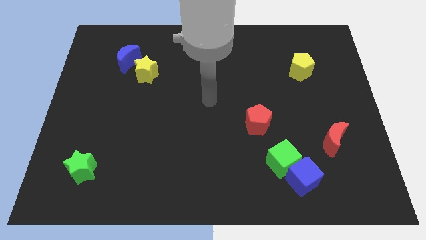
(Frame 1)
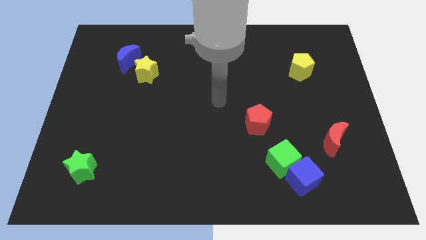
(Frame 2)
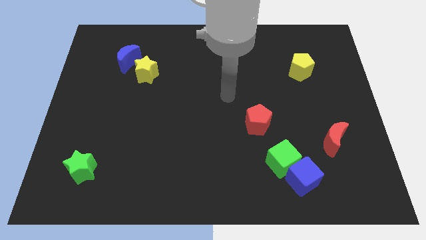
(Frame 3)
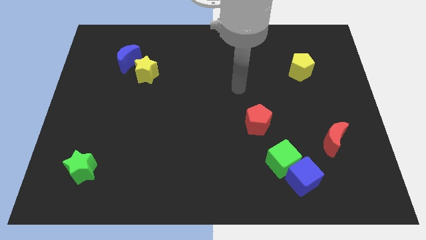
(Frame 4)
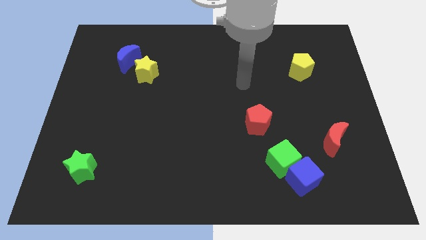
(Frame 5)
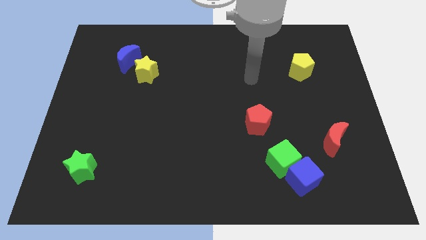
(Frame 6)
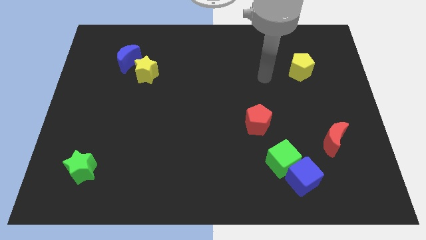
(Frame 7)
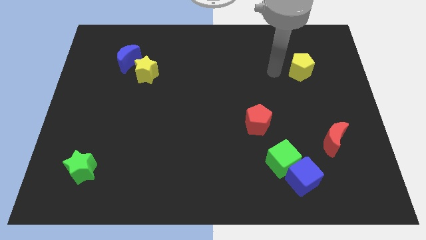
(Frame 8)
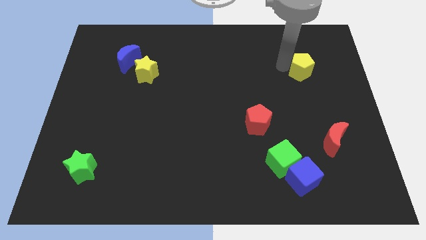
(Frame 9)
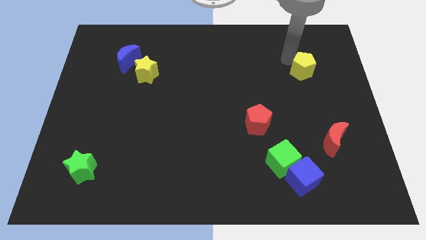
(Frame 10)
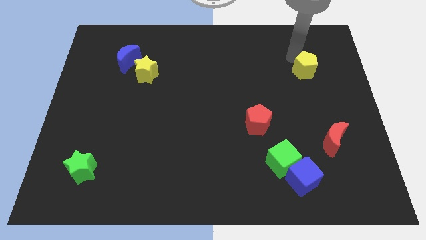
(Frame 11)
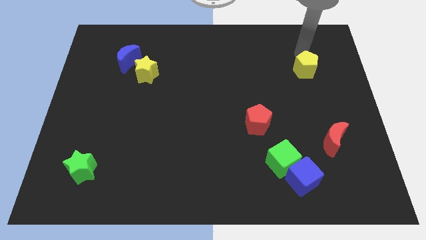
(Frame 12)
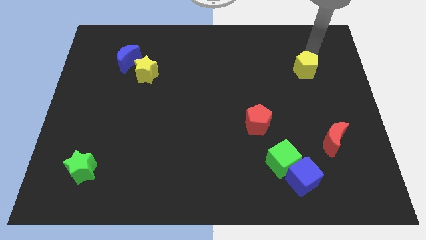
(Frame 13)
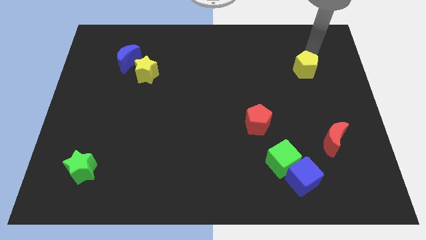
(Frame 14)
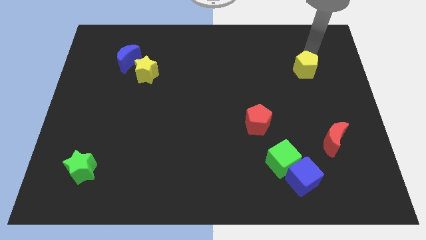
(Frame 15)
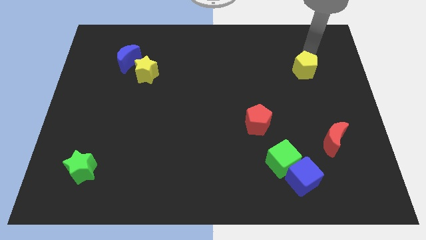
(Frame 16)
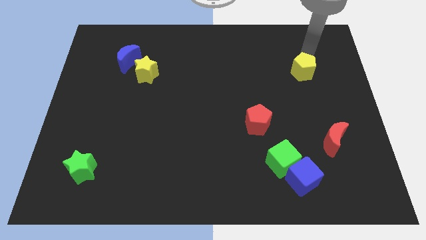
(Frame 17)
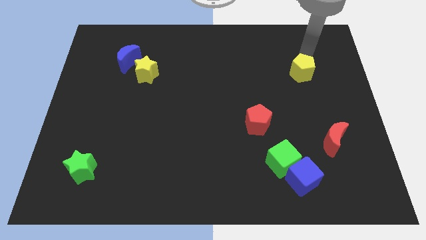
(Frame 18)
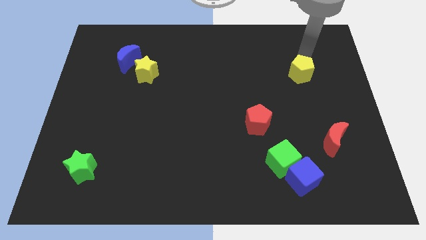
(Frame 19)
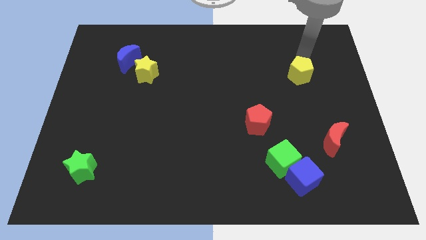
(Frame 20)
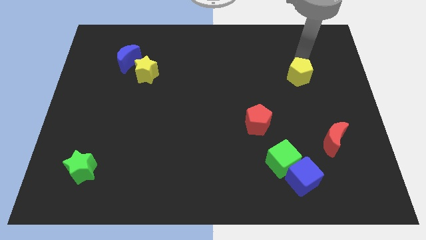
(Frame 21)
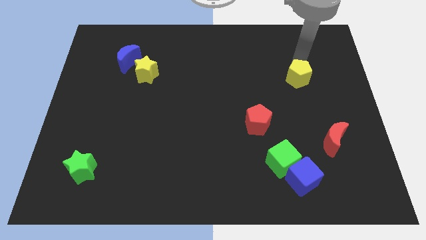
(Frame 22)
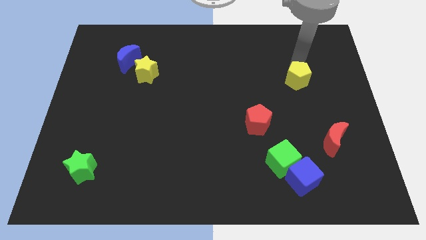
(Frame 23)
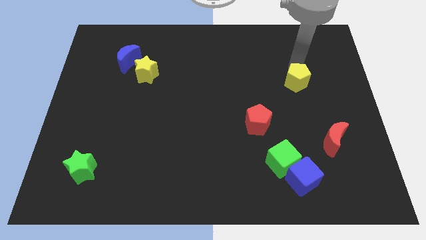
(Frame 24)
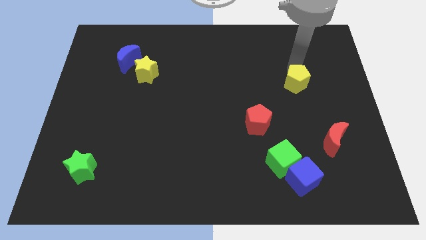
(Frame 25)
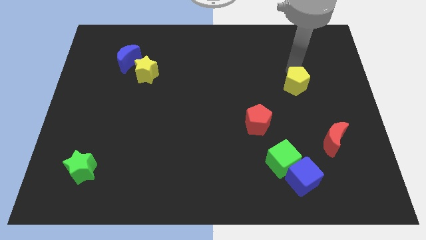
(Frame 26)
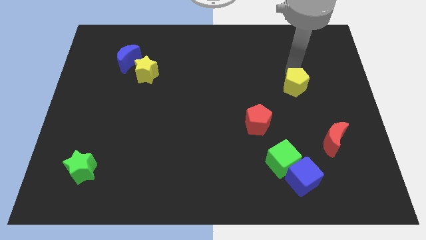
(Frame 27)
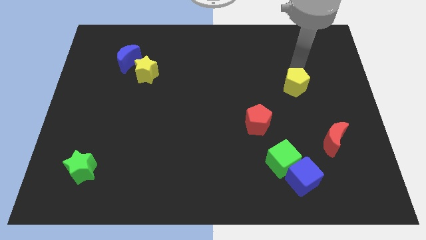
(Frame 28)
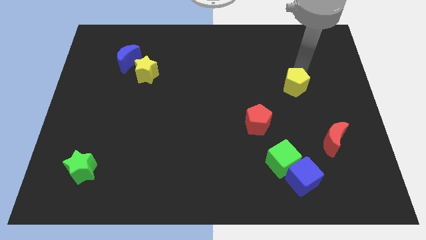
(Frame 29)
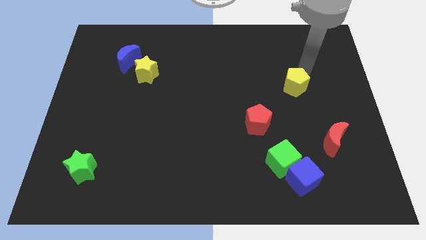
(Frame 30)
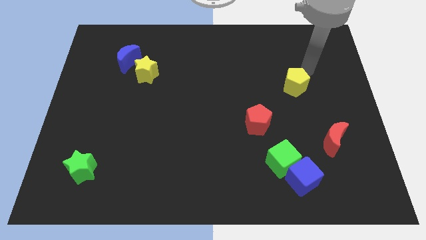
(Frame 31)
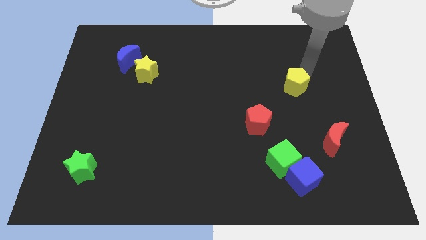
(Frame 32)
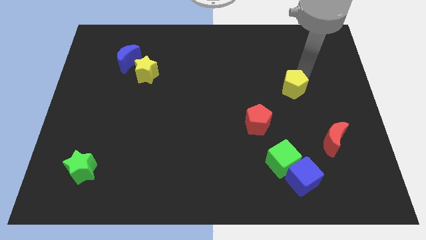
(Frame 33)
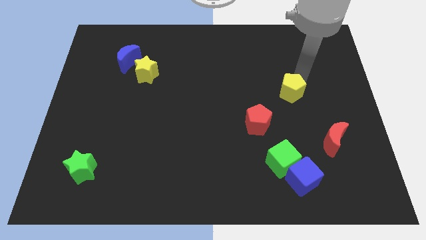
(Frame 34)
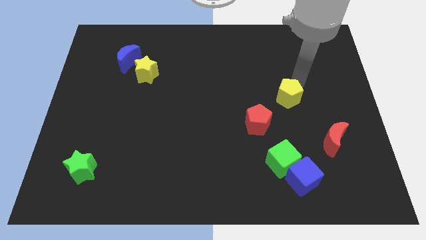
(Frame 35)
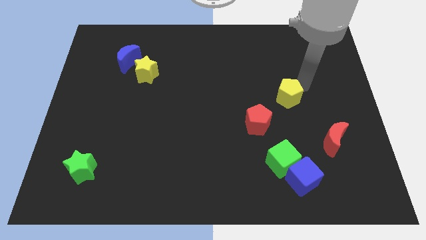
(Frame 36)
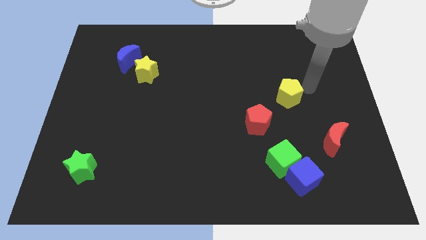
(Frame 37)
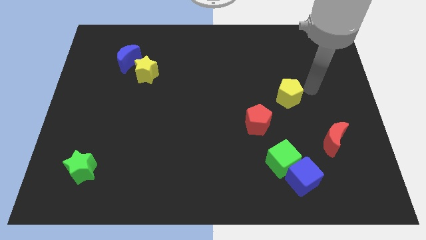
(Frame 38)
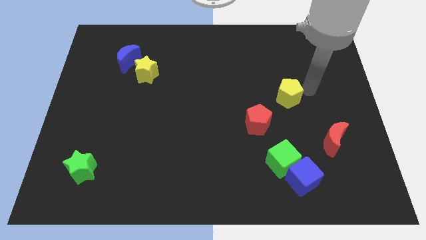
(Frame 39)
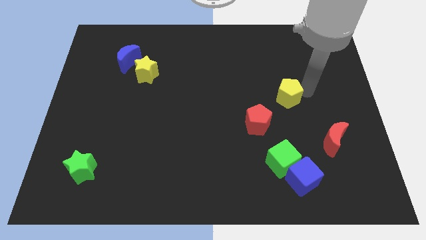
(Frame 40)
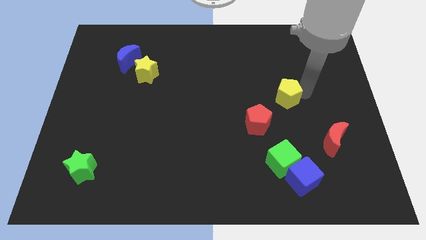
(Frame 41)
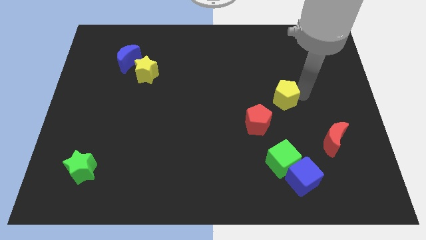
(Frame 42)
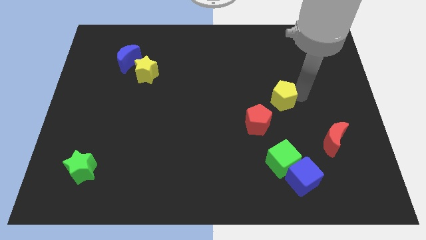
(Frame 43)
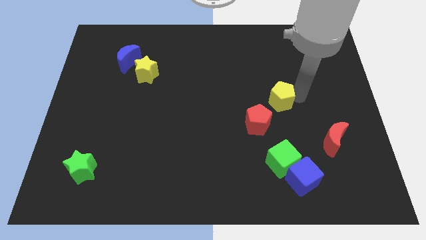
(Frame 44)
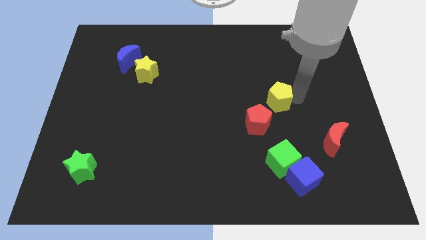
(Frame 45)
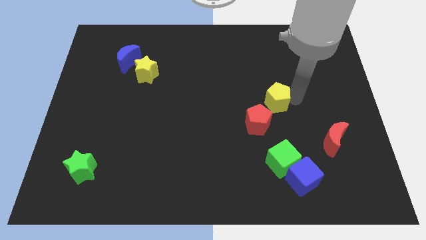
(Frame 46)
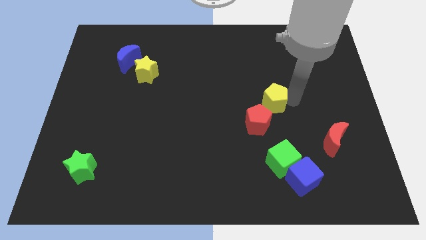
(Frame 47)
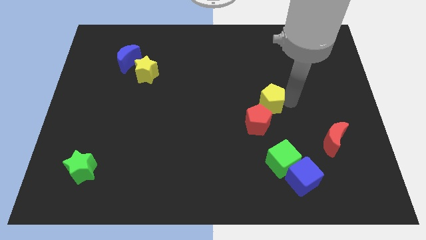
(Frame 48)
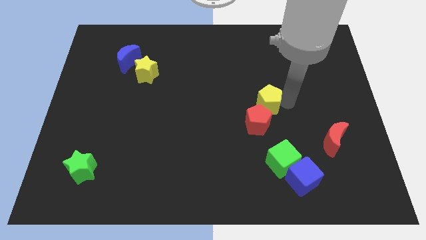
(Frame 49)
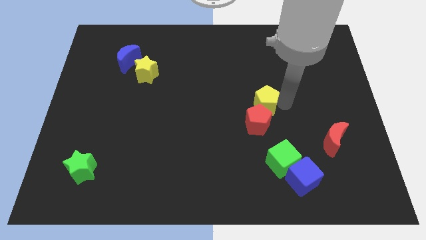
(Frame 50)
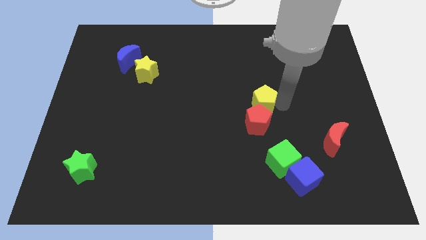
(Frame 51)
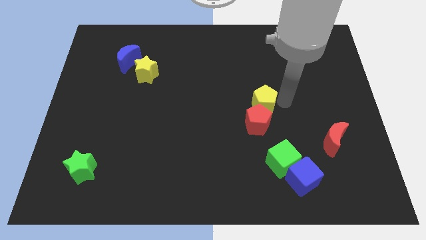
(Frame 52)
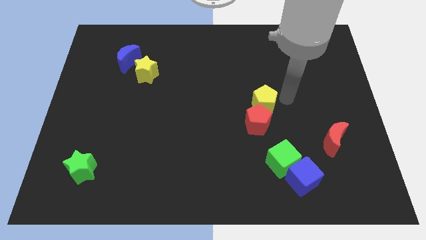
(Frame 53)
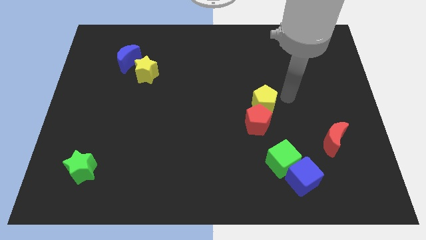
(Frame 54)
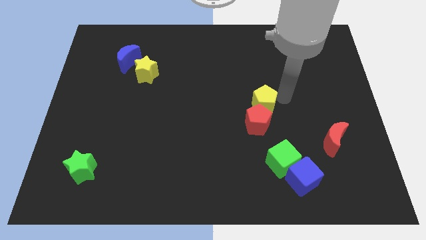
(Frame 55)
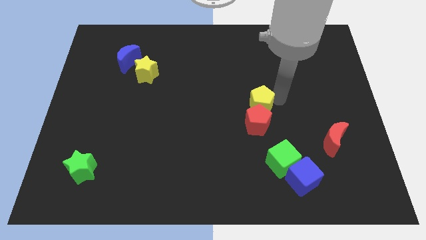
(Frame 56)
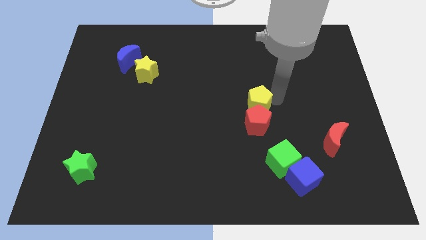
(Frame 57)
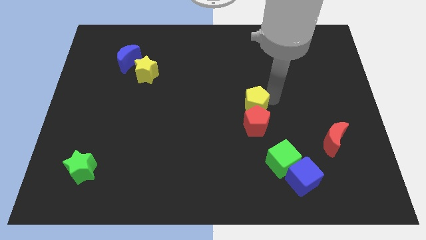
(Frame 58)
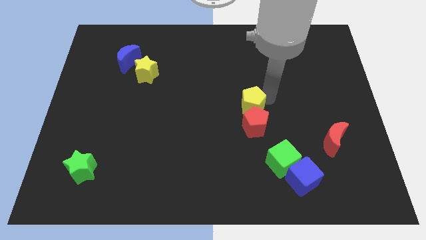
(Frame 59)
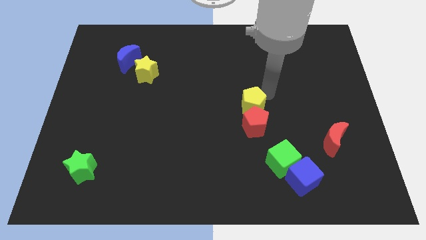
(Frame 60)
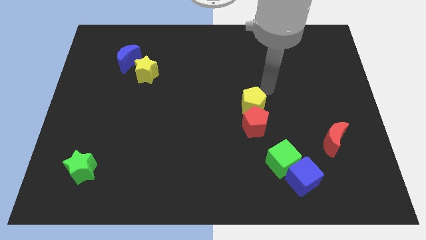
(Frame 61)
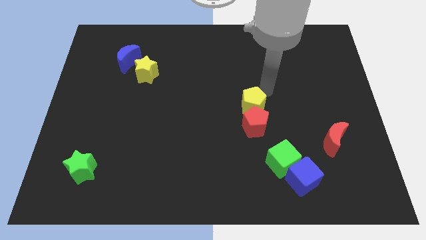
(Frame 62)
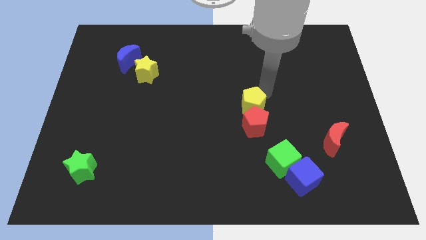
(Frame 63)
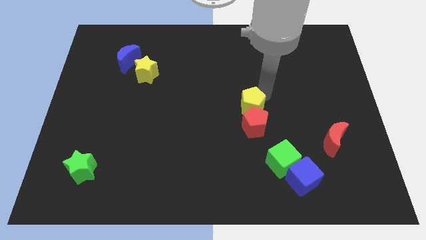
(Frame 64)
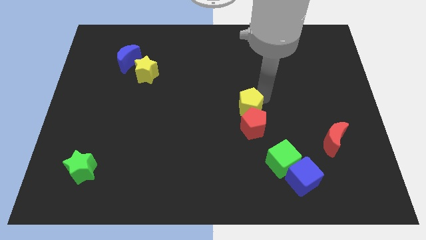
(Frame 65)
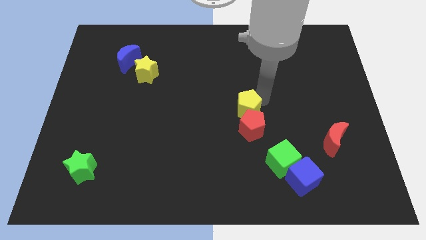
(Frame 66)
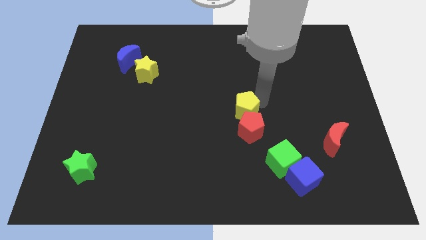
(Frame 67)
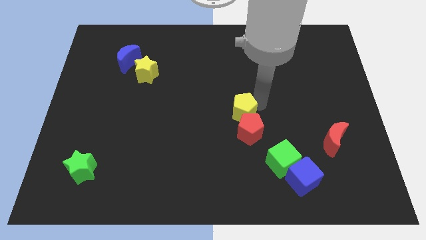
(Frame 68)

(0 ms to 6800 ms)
slide the yellow pentagon down and to the left

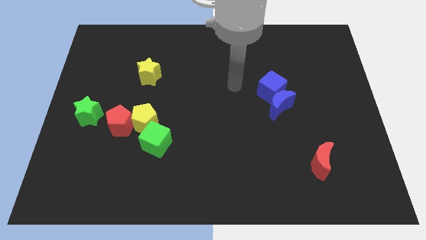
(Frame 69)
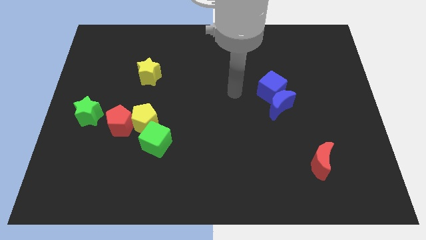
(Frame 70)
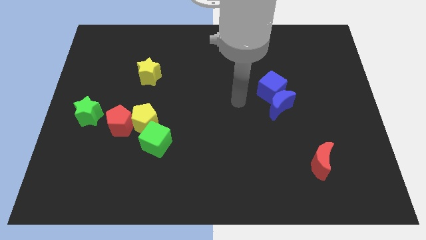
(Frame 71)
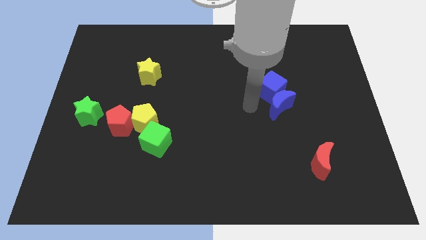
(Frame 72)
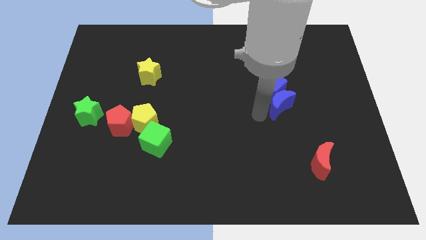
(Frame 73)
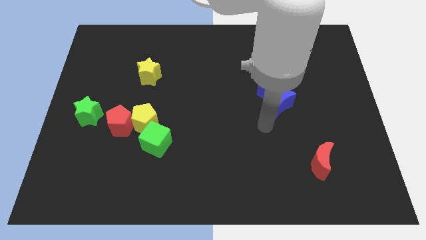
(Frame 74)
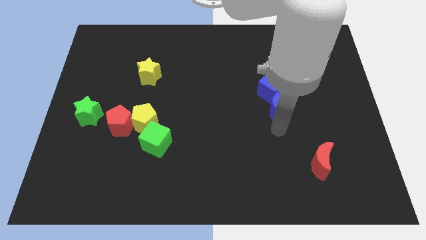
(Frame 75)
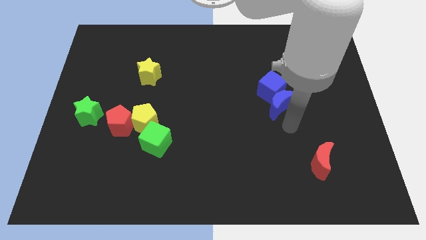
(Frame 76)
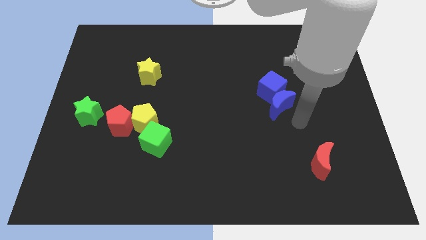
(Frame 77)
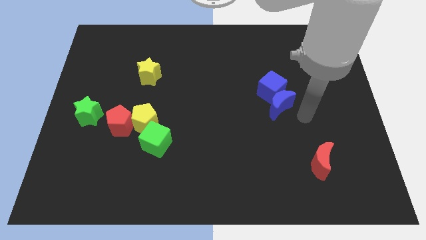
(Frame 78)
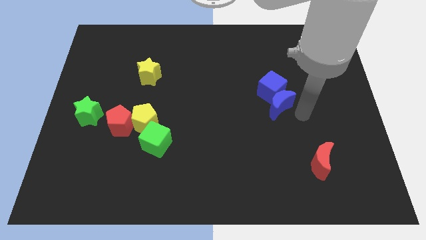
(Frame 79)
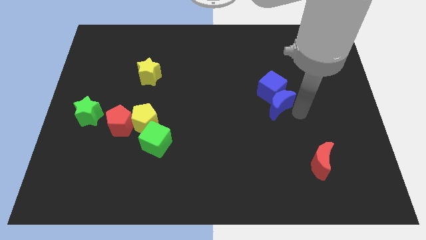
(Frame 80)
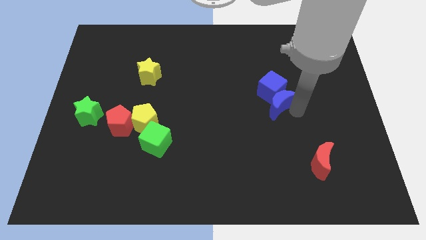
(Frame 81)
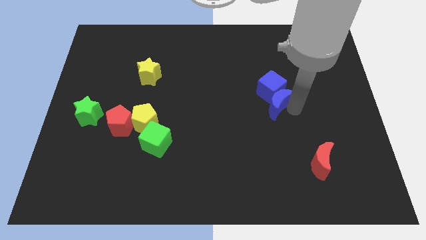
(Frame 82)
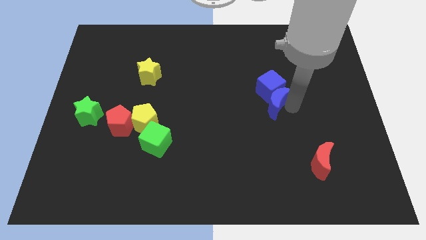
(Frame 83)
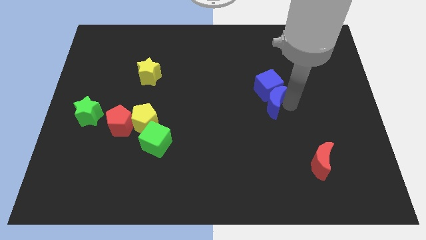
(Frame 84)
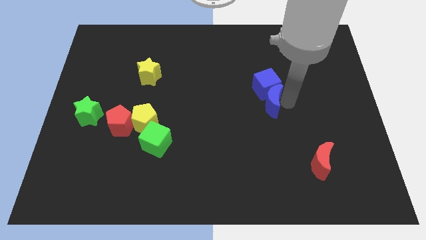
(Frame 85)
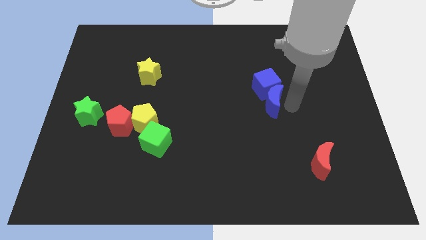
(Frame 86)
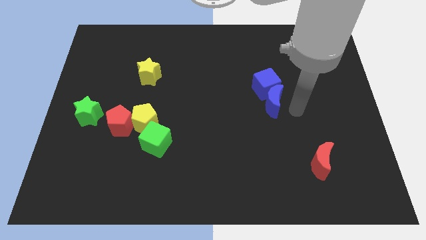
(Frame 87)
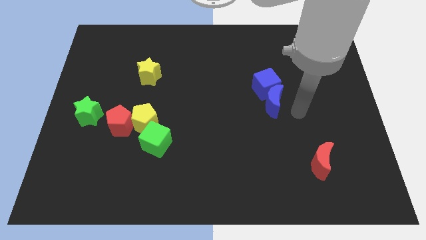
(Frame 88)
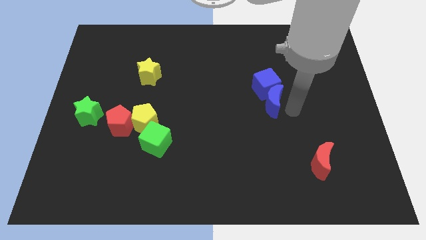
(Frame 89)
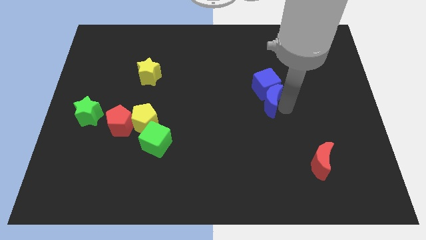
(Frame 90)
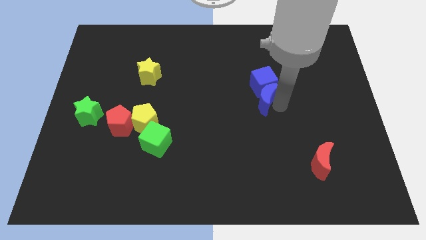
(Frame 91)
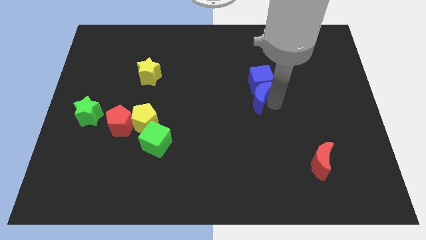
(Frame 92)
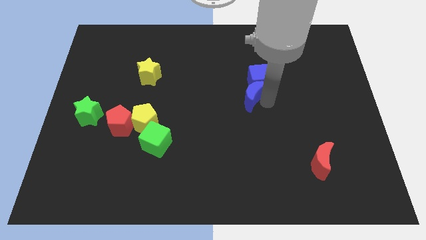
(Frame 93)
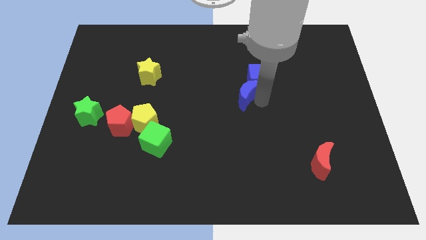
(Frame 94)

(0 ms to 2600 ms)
slightly move the blue moon up and then left
